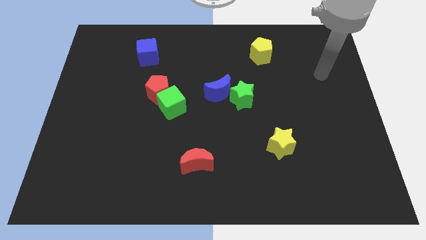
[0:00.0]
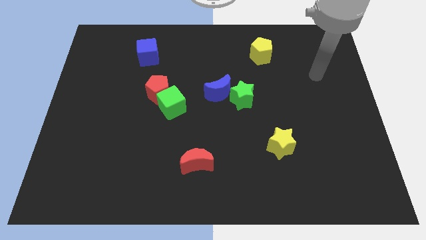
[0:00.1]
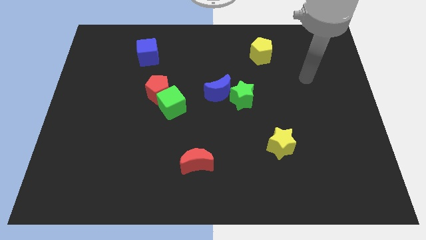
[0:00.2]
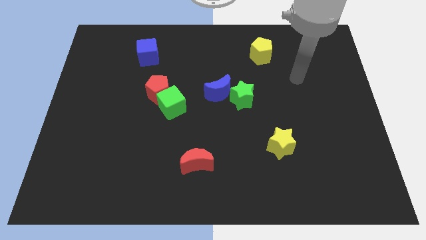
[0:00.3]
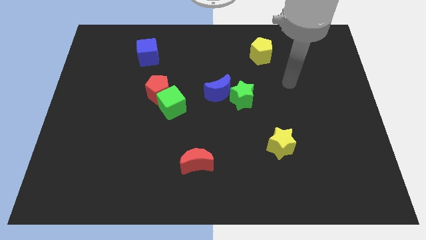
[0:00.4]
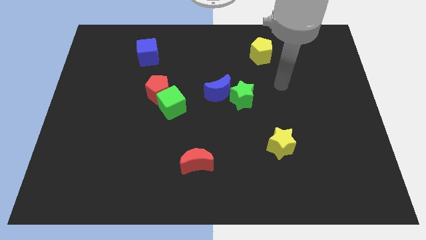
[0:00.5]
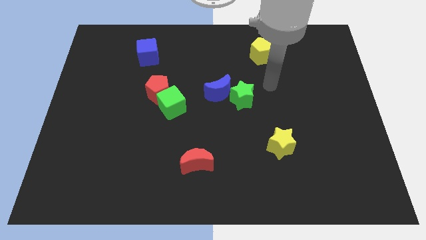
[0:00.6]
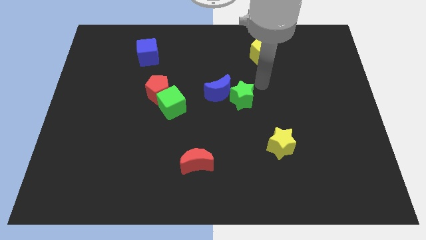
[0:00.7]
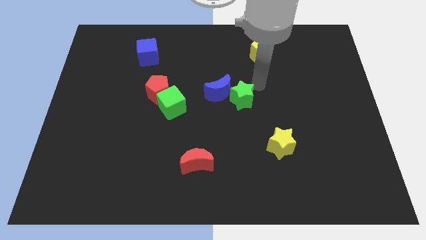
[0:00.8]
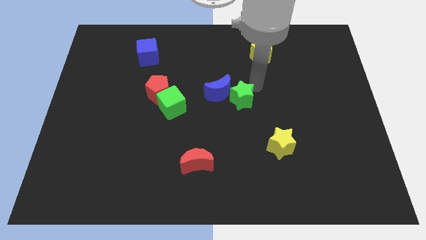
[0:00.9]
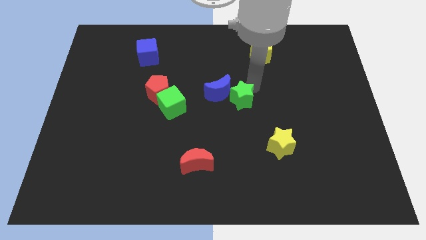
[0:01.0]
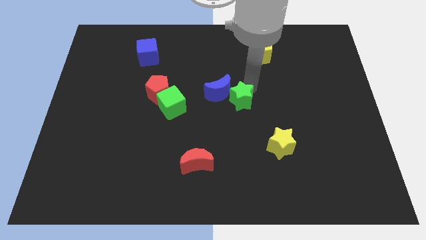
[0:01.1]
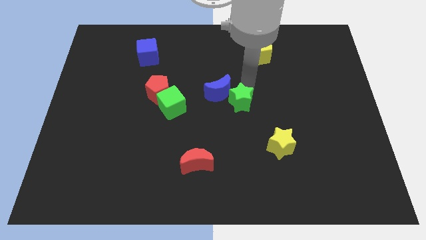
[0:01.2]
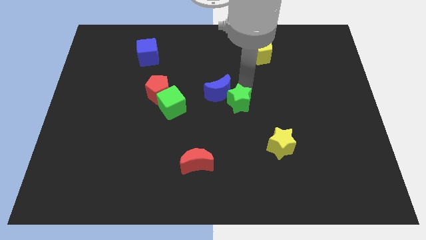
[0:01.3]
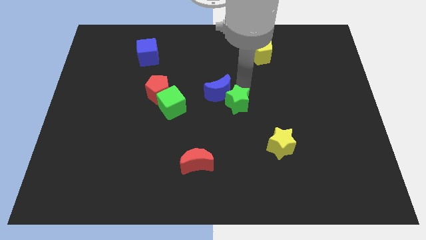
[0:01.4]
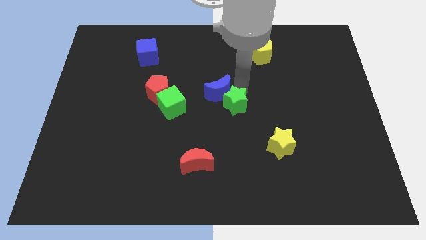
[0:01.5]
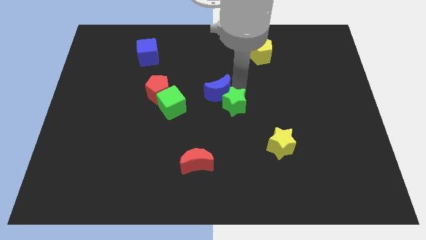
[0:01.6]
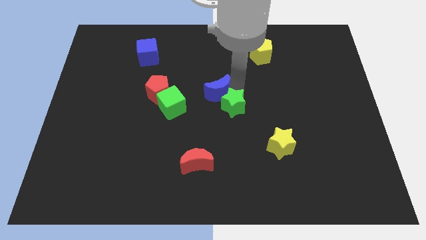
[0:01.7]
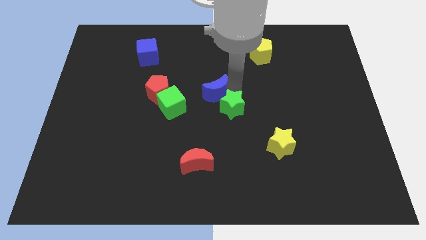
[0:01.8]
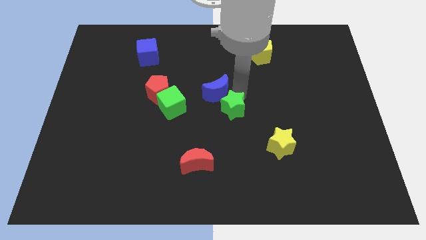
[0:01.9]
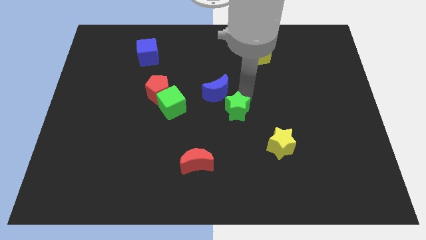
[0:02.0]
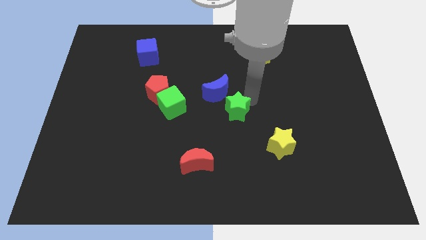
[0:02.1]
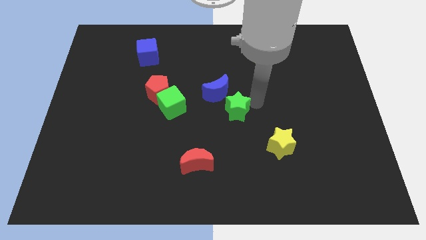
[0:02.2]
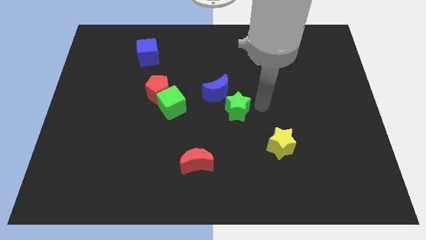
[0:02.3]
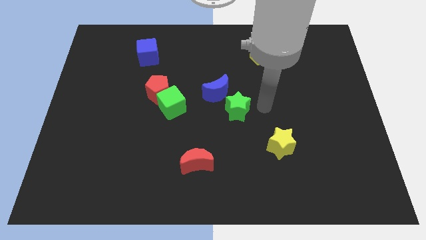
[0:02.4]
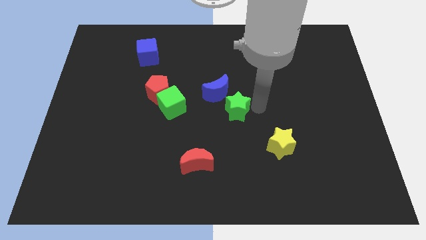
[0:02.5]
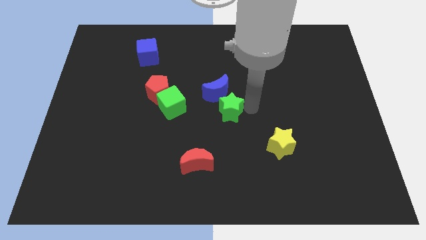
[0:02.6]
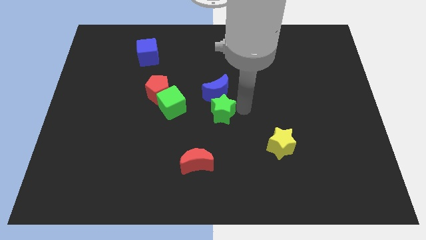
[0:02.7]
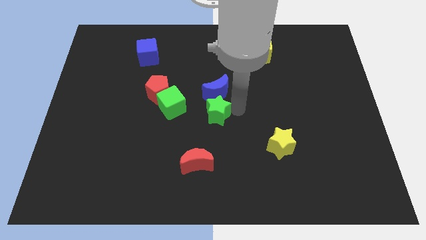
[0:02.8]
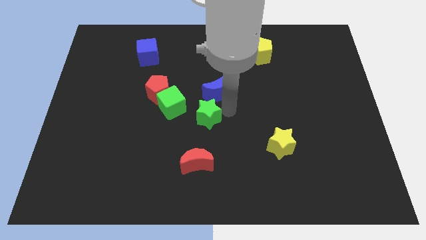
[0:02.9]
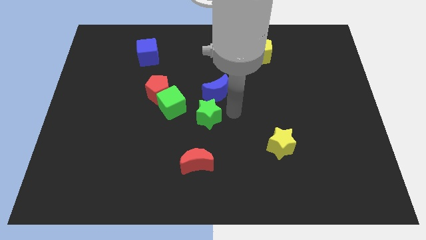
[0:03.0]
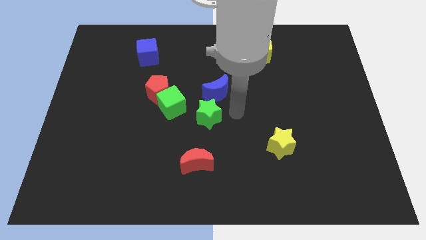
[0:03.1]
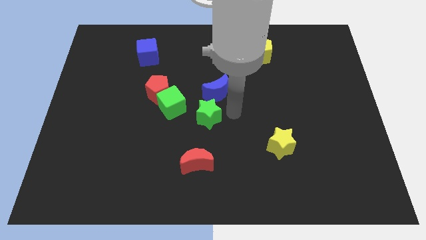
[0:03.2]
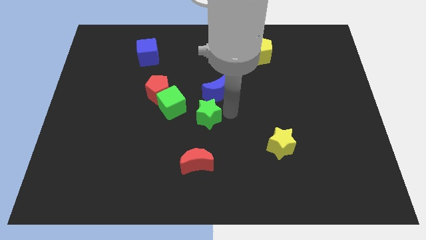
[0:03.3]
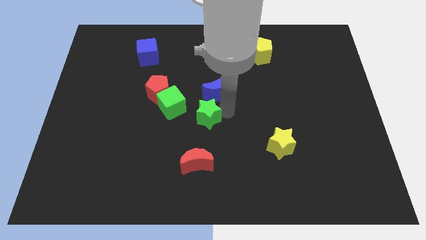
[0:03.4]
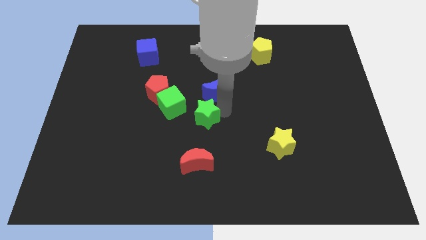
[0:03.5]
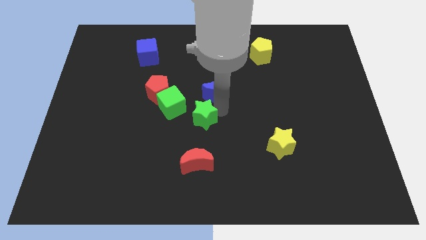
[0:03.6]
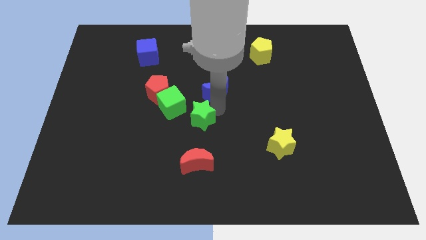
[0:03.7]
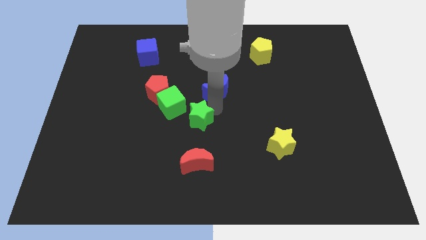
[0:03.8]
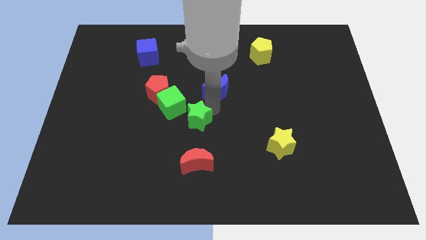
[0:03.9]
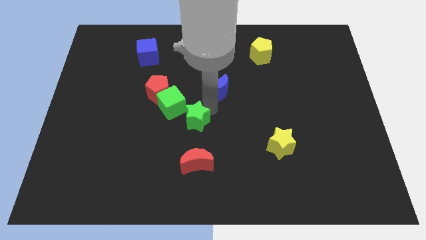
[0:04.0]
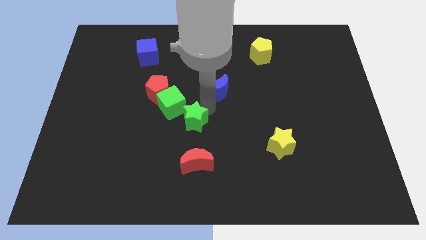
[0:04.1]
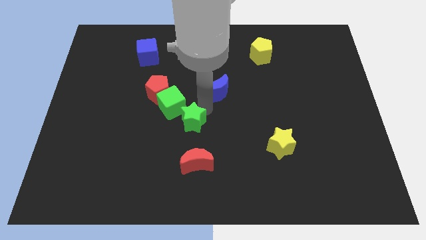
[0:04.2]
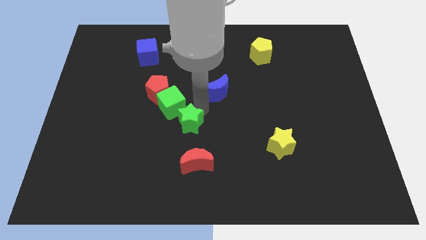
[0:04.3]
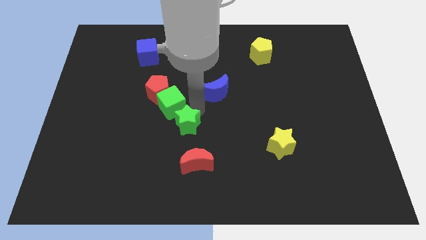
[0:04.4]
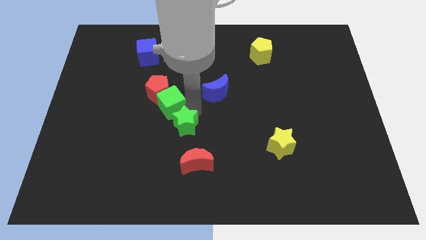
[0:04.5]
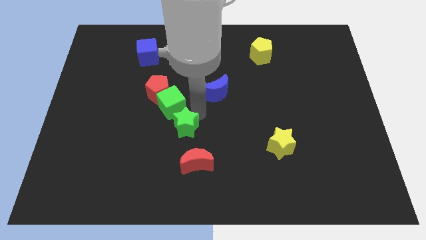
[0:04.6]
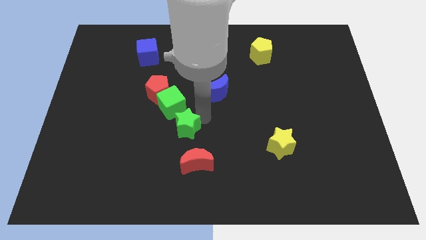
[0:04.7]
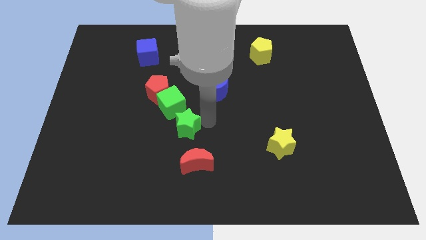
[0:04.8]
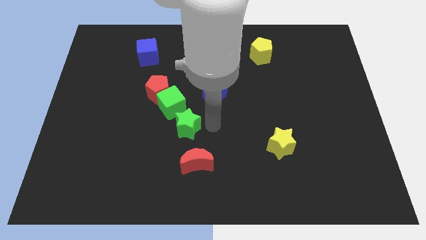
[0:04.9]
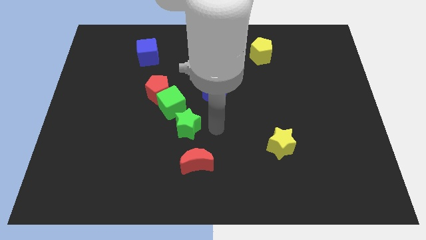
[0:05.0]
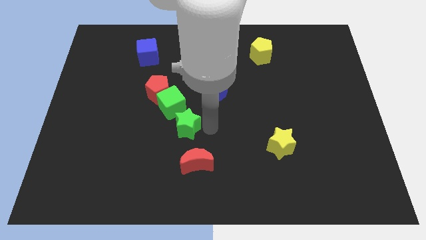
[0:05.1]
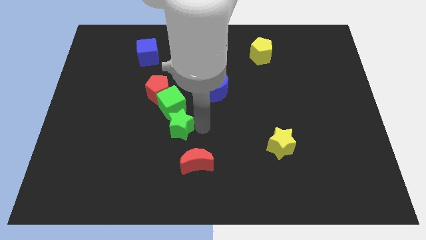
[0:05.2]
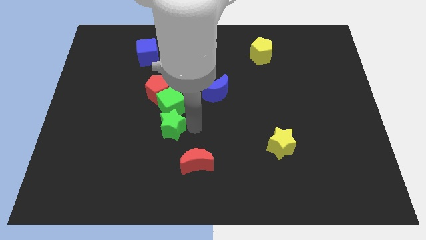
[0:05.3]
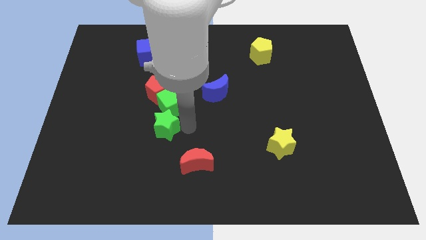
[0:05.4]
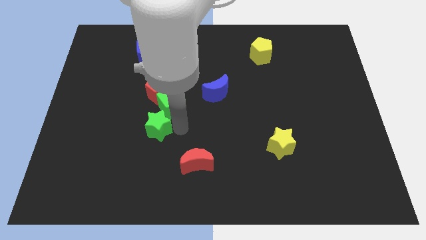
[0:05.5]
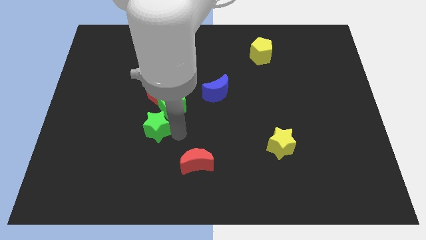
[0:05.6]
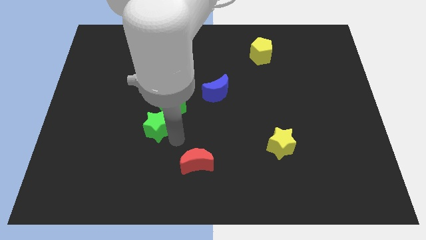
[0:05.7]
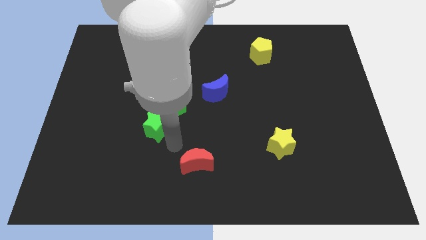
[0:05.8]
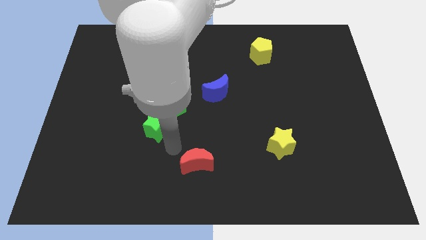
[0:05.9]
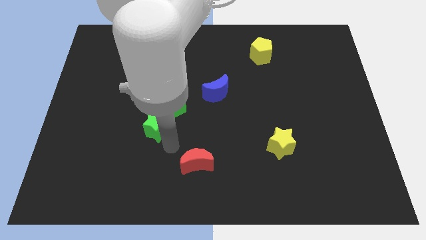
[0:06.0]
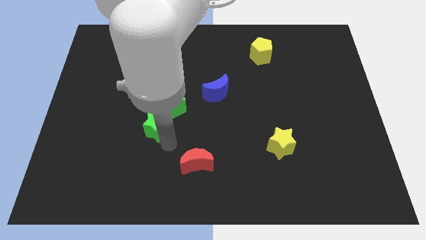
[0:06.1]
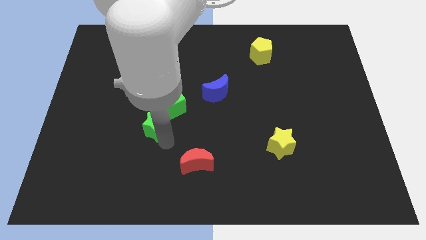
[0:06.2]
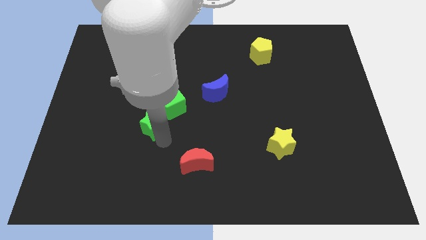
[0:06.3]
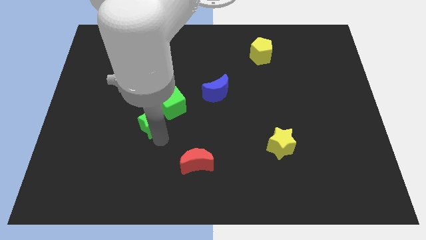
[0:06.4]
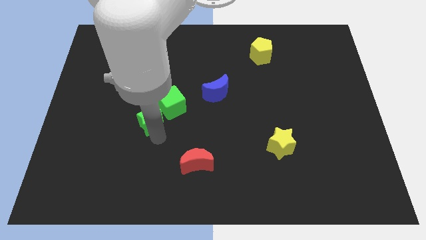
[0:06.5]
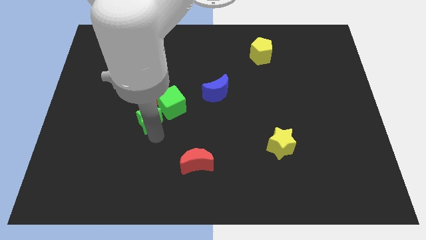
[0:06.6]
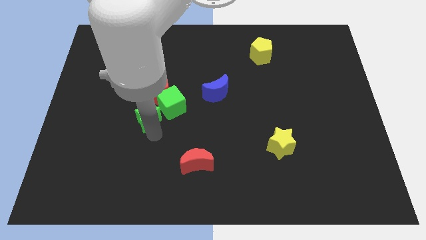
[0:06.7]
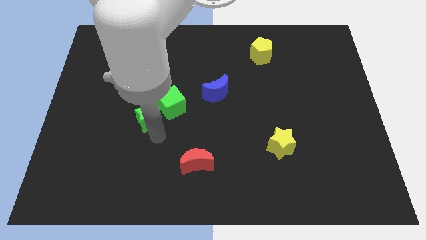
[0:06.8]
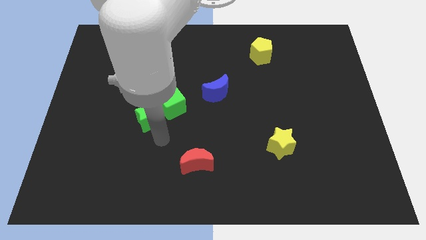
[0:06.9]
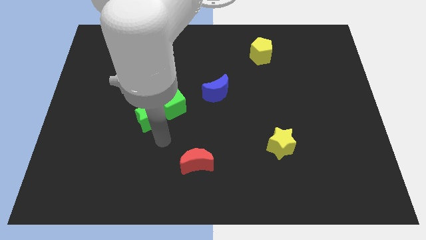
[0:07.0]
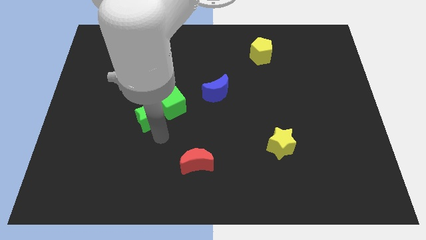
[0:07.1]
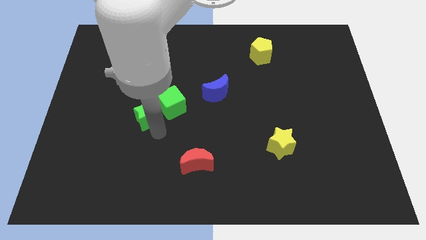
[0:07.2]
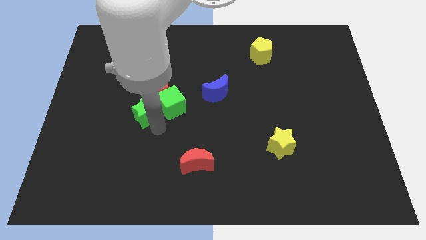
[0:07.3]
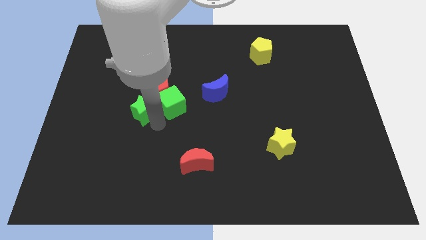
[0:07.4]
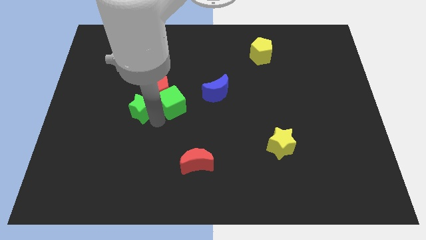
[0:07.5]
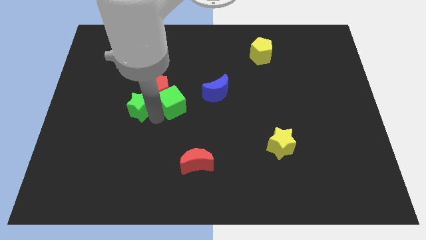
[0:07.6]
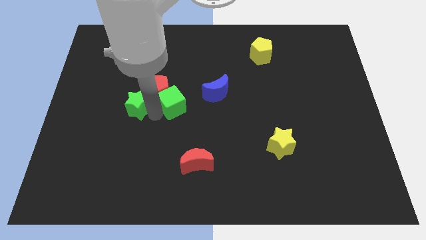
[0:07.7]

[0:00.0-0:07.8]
put the green star to the left of the red pentagon
